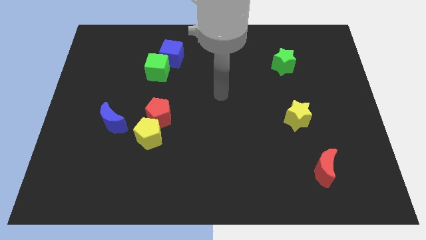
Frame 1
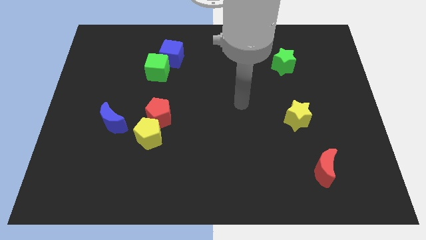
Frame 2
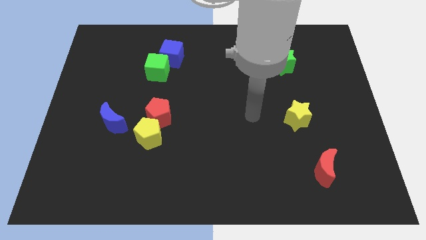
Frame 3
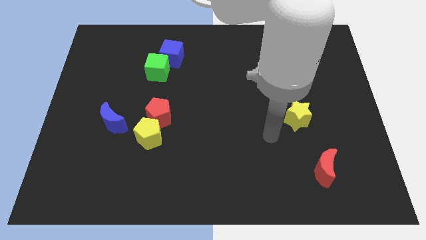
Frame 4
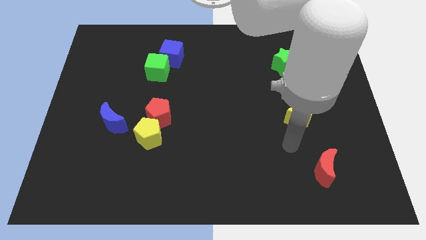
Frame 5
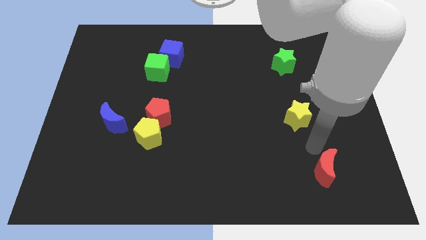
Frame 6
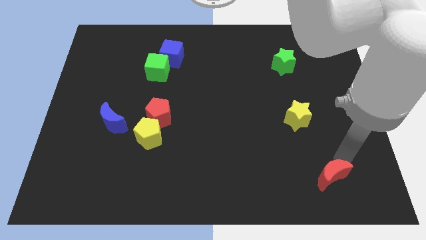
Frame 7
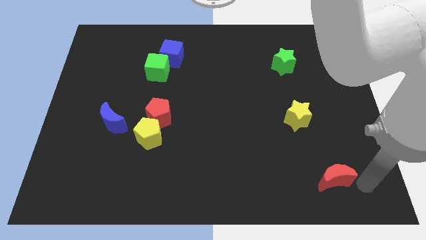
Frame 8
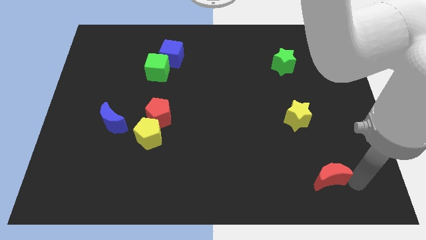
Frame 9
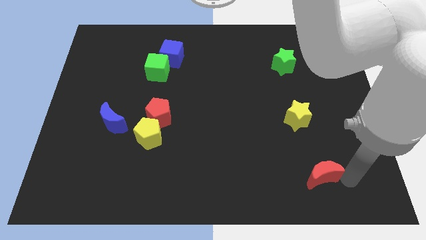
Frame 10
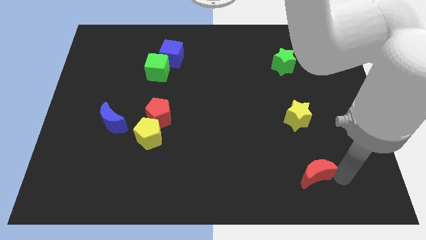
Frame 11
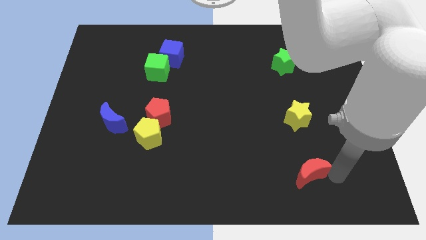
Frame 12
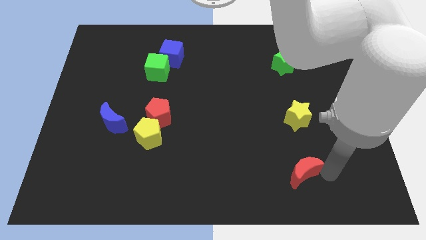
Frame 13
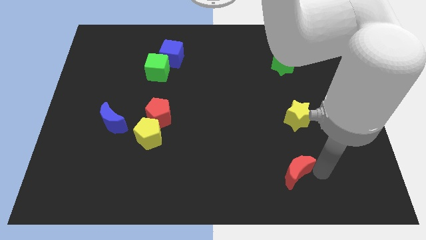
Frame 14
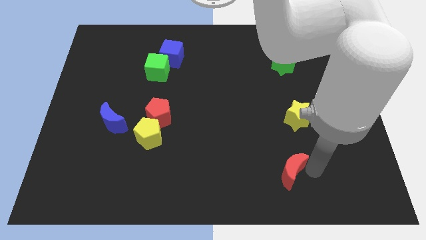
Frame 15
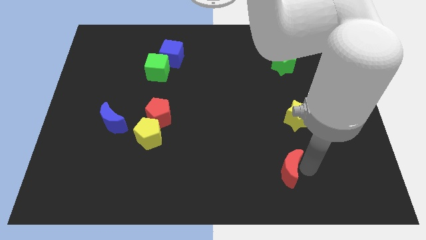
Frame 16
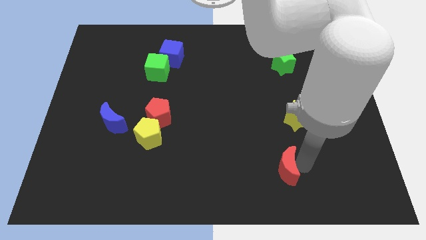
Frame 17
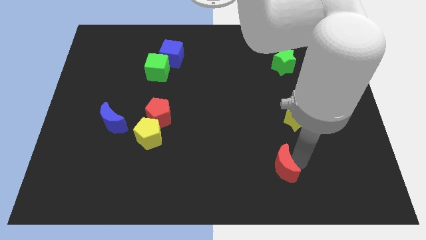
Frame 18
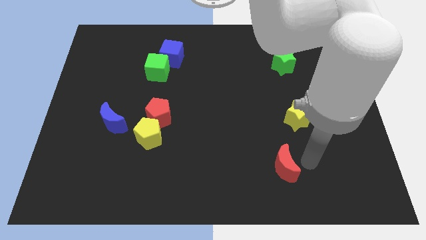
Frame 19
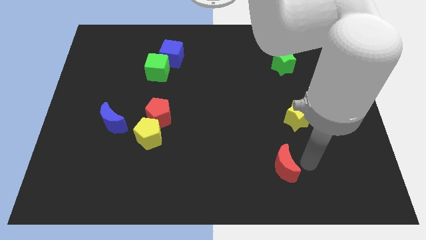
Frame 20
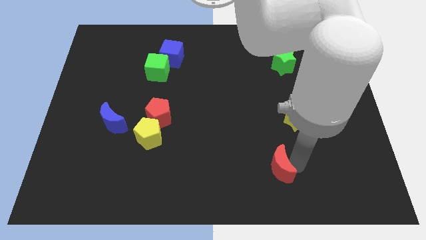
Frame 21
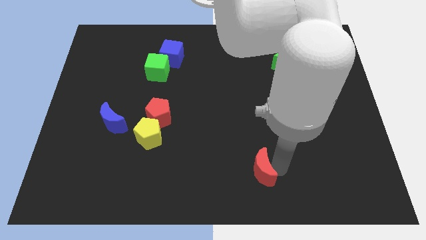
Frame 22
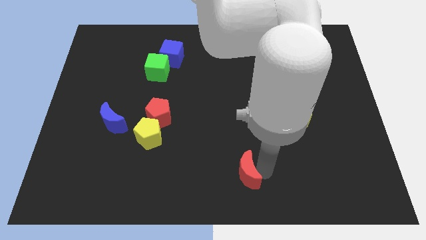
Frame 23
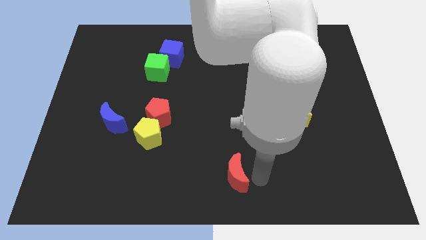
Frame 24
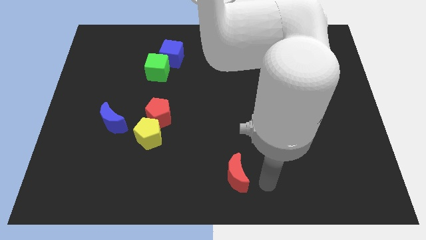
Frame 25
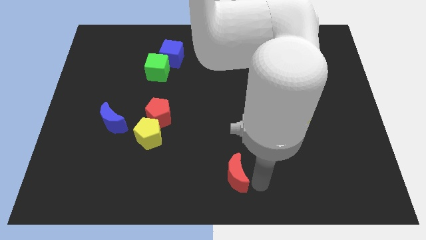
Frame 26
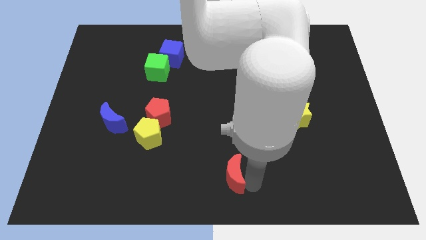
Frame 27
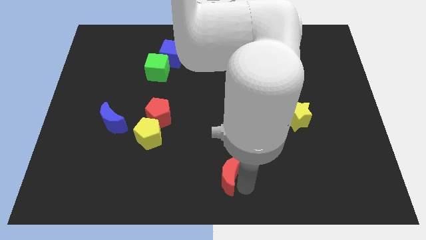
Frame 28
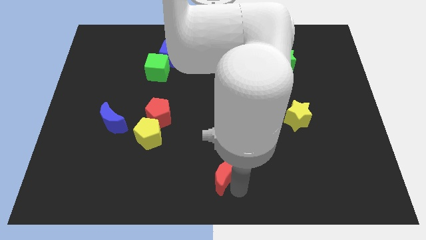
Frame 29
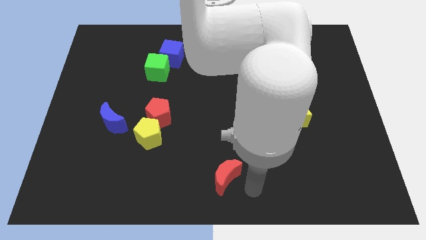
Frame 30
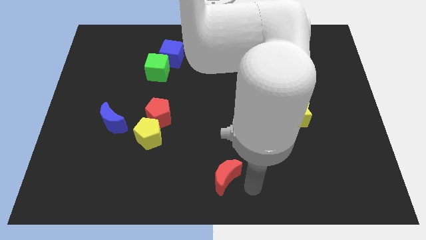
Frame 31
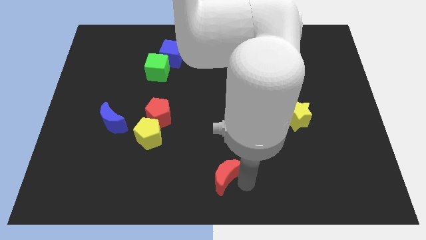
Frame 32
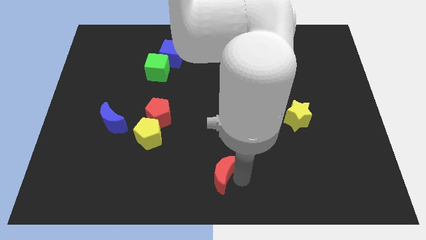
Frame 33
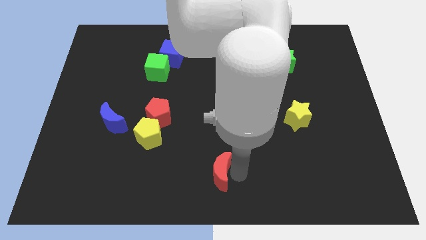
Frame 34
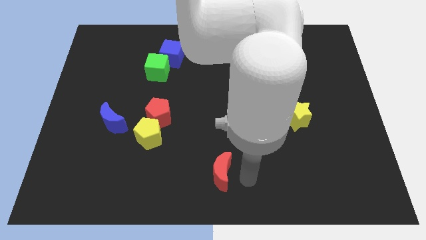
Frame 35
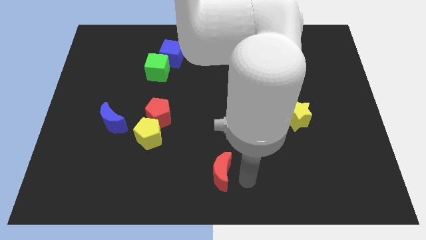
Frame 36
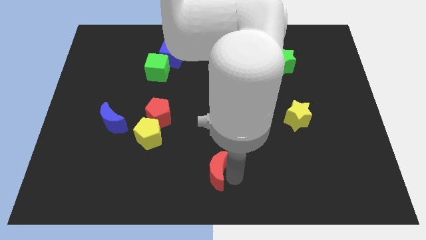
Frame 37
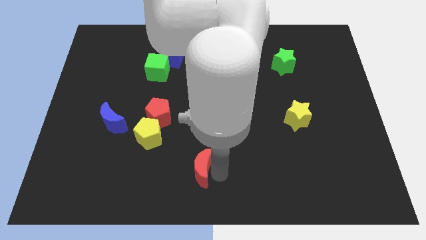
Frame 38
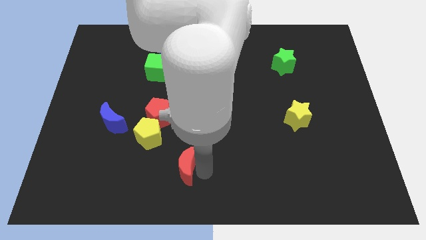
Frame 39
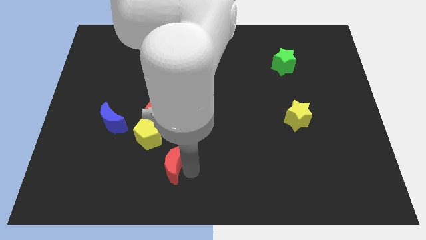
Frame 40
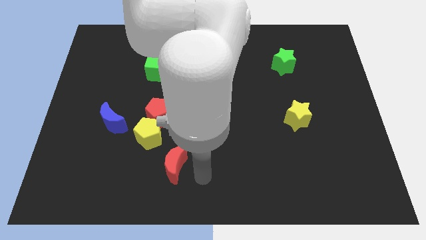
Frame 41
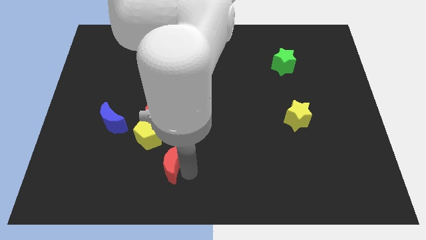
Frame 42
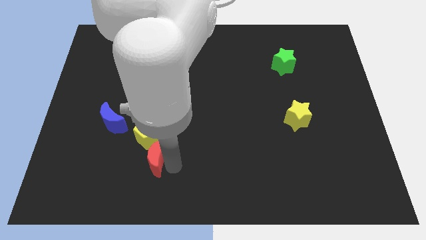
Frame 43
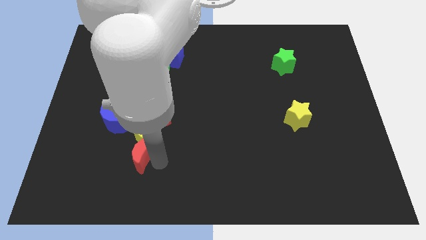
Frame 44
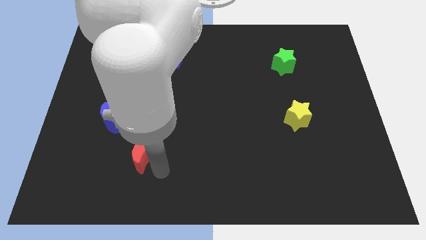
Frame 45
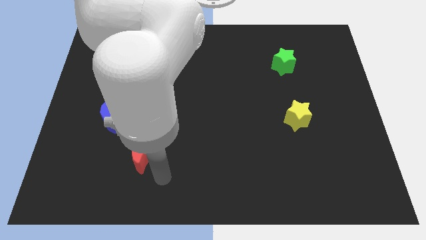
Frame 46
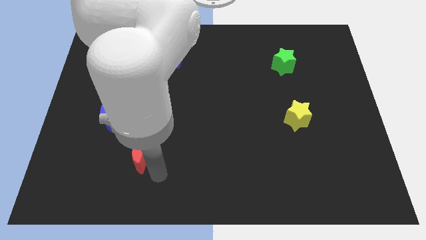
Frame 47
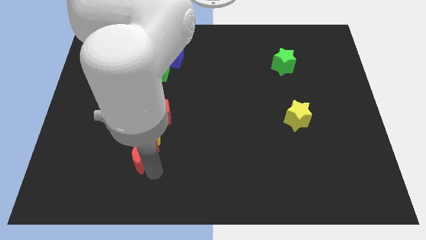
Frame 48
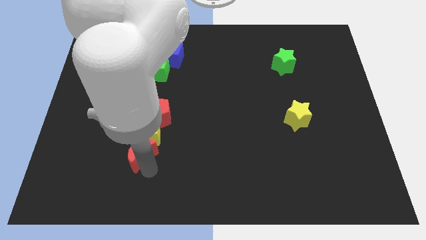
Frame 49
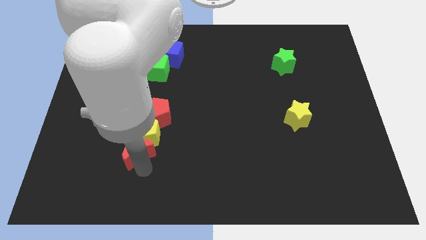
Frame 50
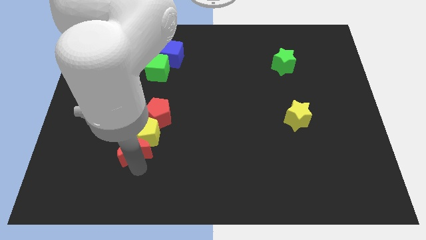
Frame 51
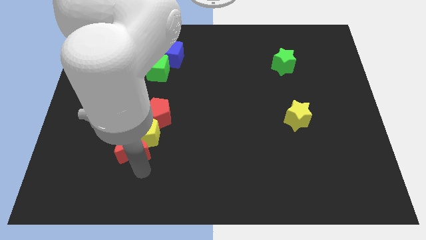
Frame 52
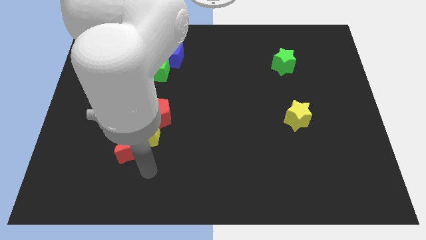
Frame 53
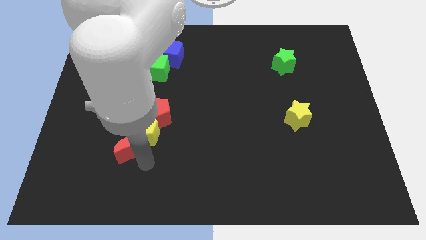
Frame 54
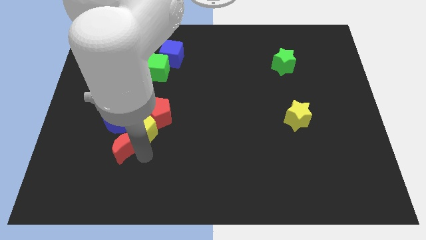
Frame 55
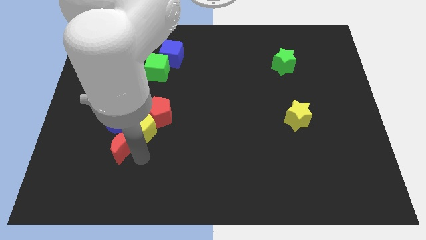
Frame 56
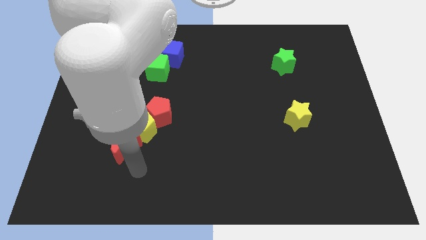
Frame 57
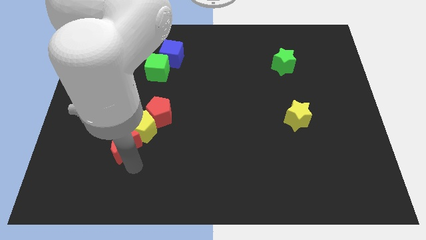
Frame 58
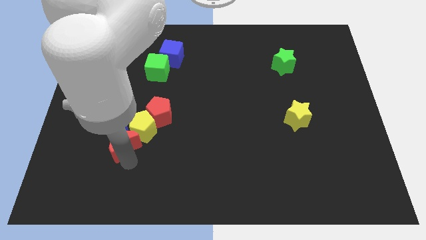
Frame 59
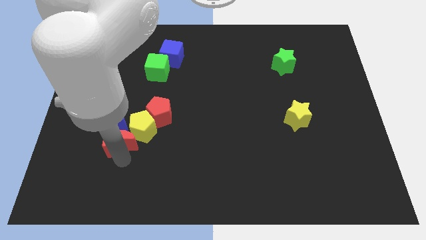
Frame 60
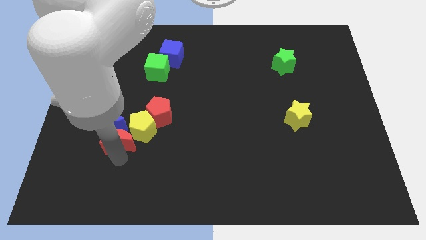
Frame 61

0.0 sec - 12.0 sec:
put the red moon close to the blue moon

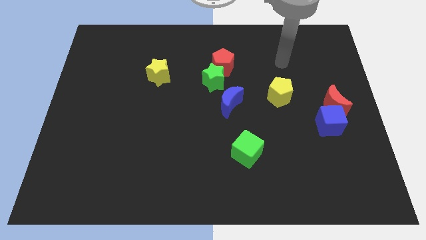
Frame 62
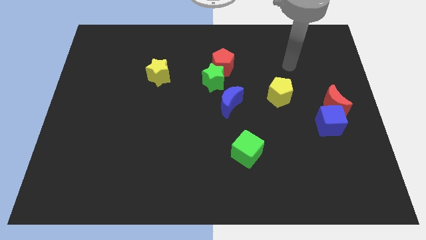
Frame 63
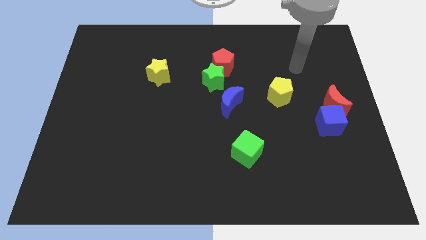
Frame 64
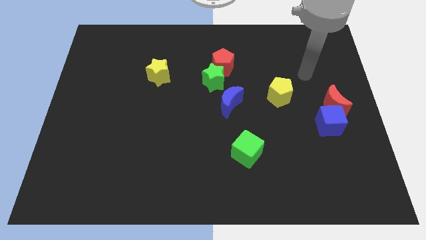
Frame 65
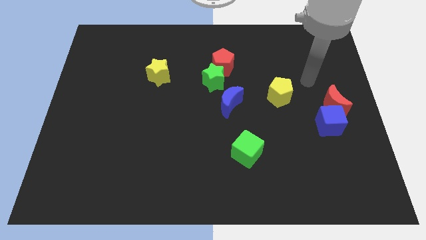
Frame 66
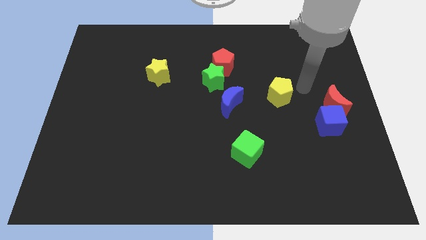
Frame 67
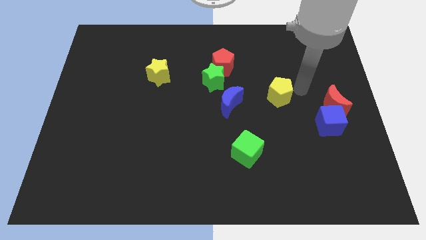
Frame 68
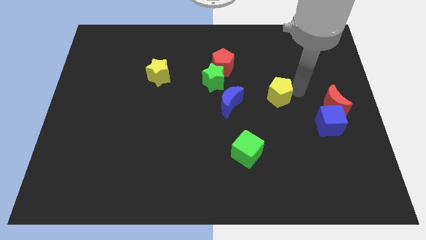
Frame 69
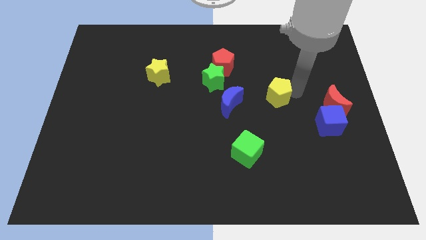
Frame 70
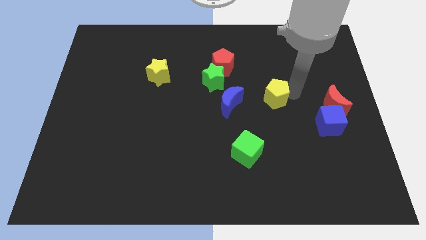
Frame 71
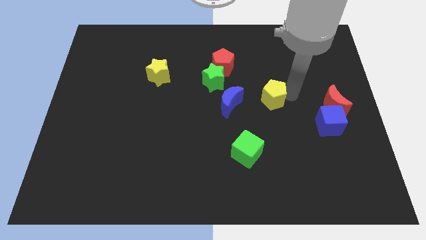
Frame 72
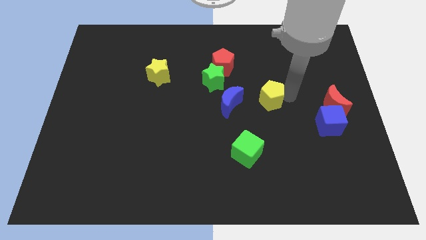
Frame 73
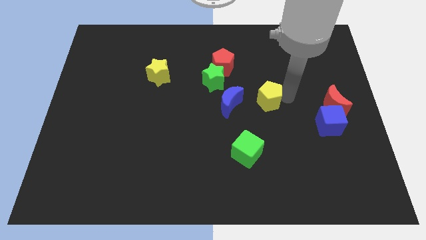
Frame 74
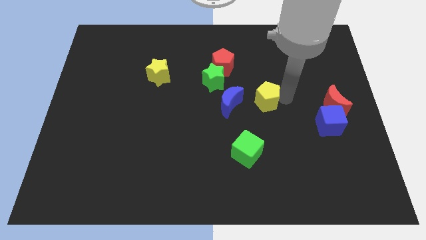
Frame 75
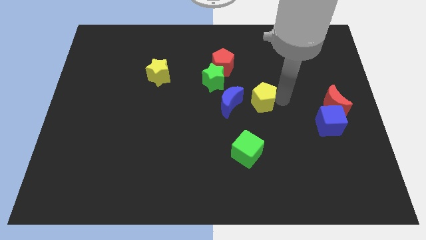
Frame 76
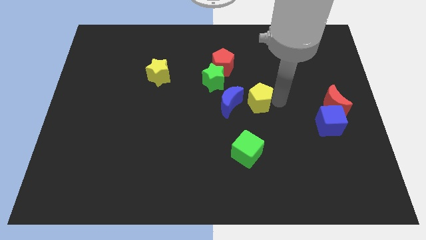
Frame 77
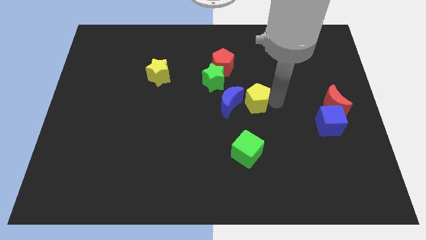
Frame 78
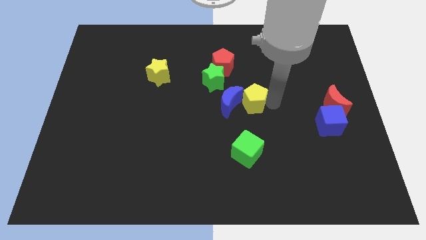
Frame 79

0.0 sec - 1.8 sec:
push the yellow pentagon next to the blue moon
